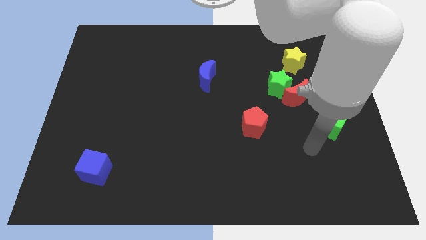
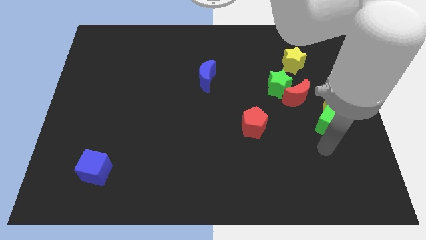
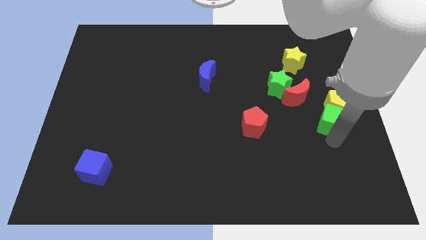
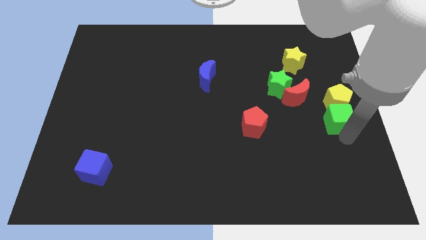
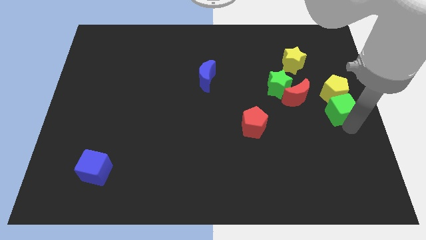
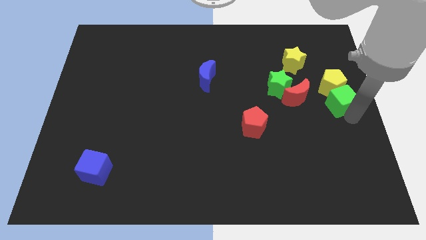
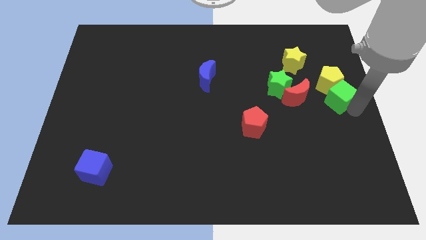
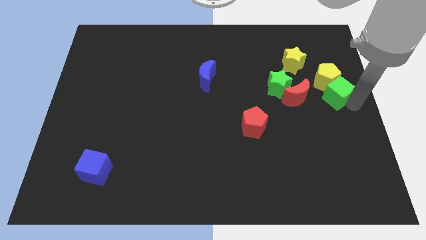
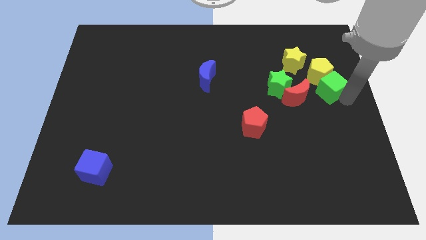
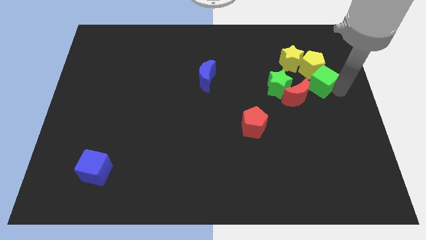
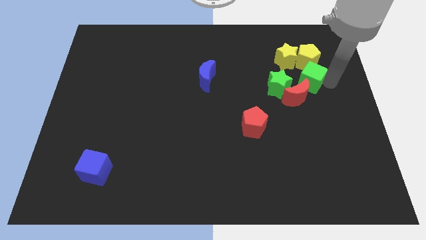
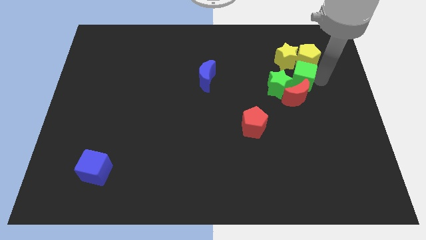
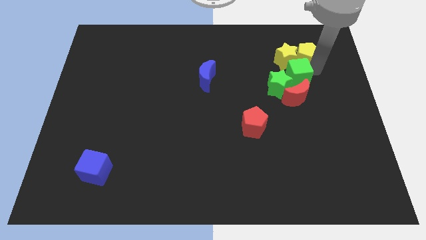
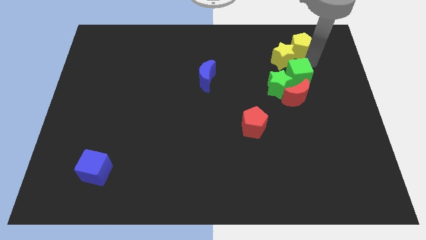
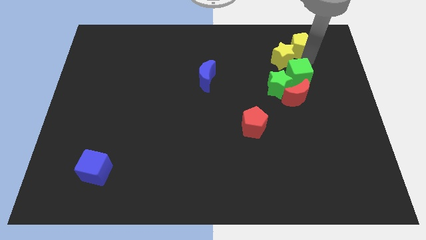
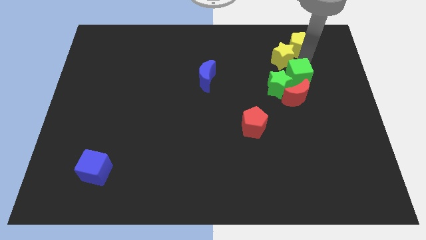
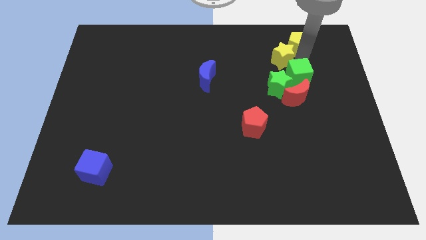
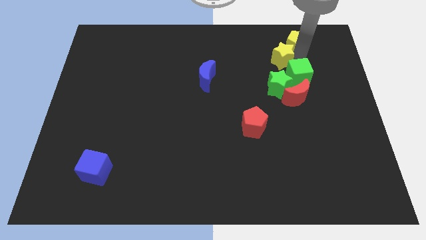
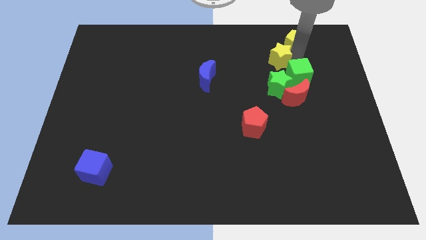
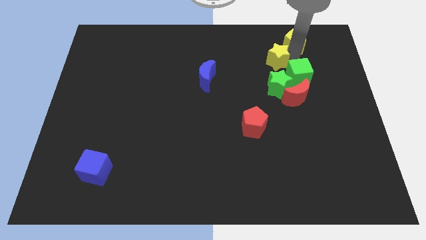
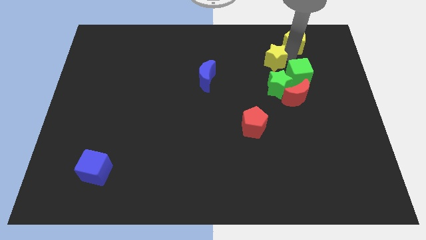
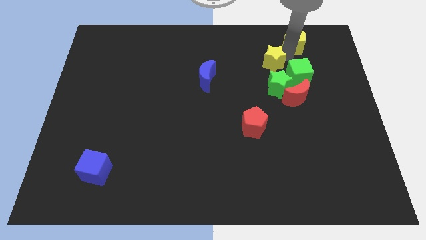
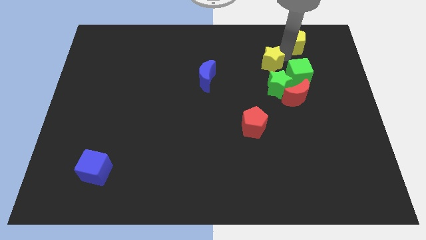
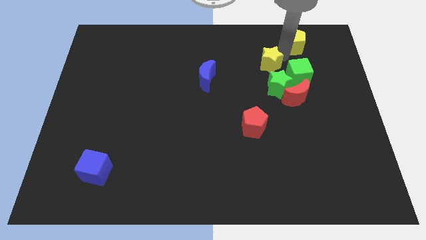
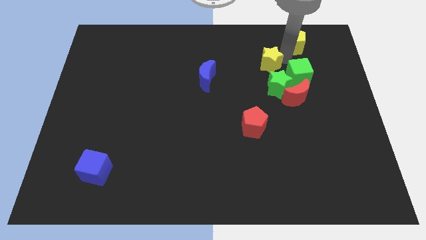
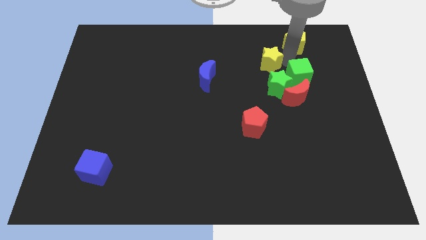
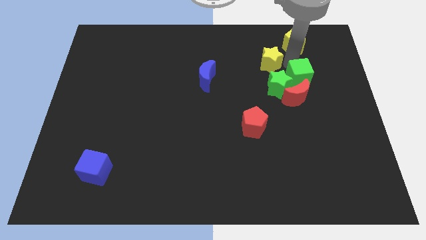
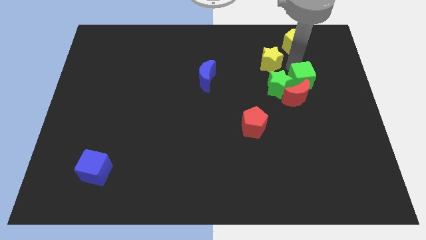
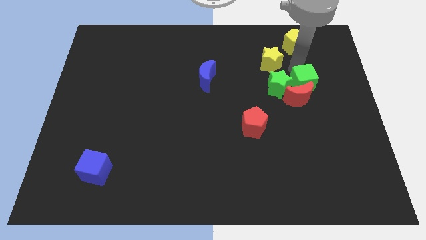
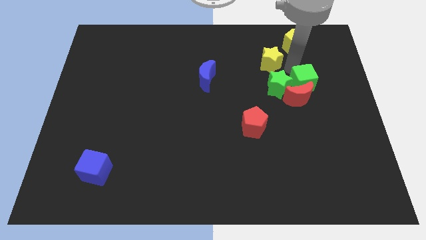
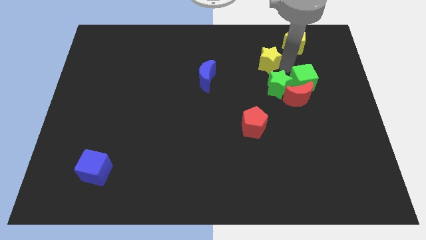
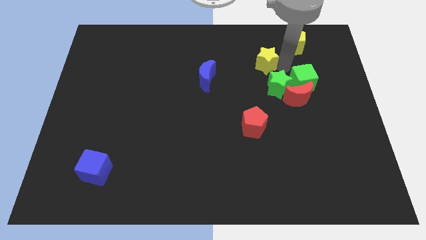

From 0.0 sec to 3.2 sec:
move the yellow star left a little

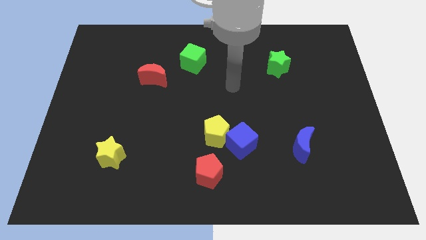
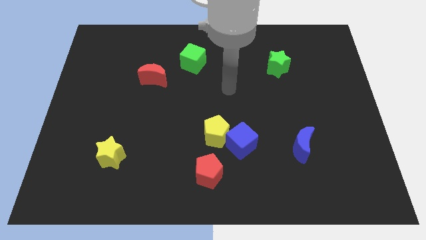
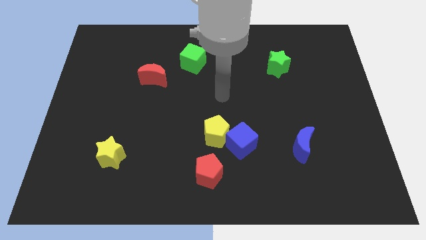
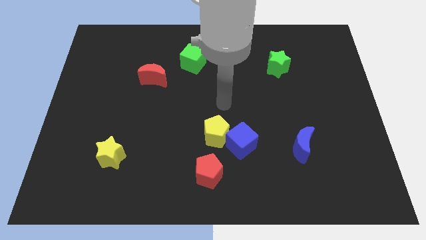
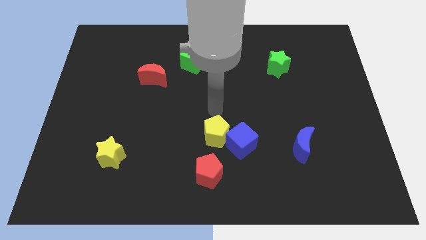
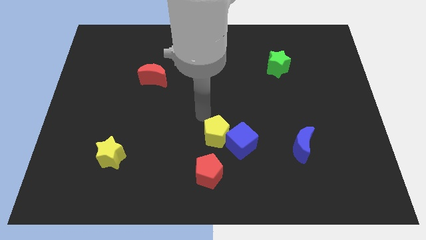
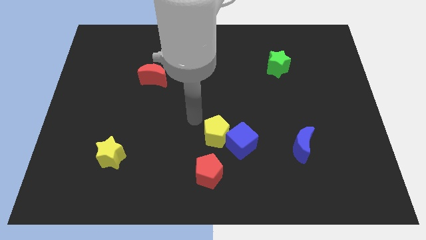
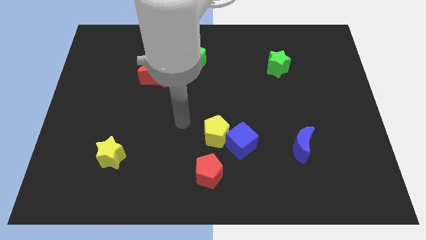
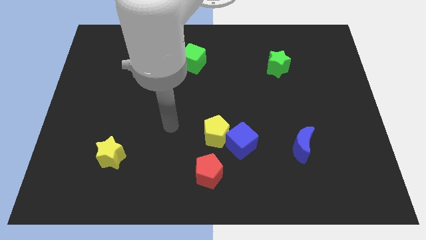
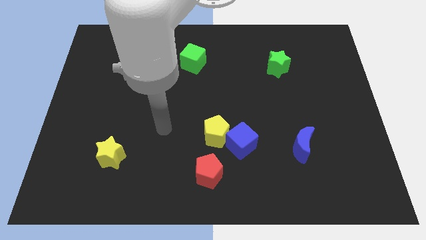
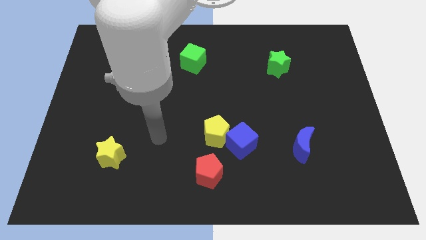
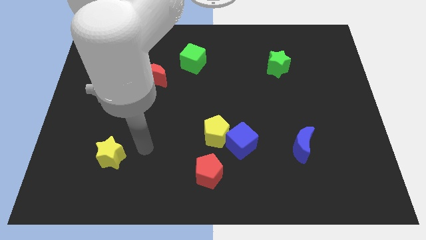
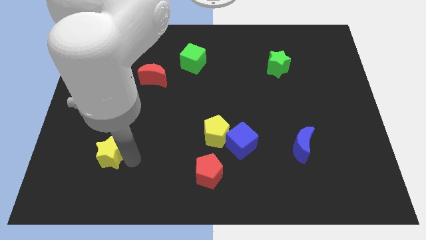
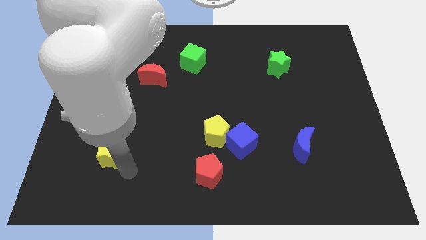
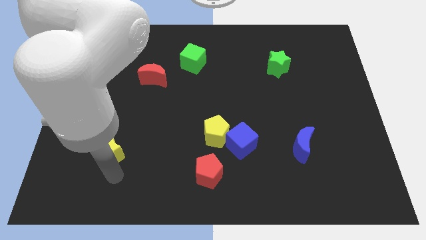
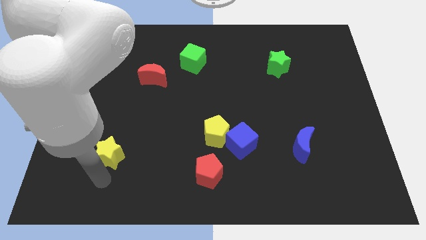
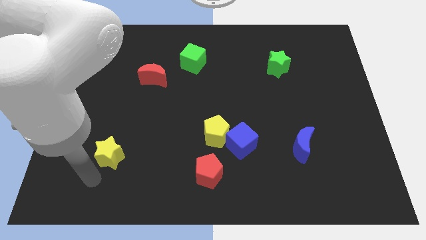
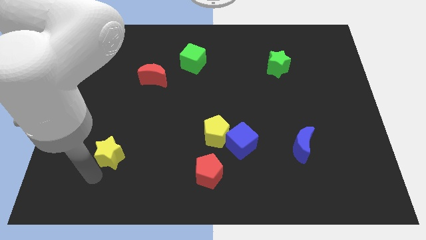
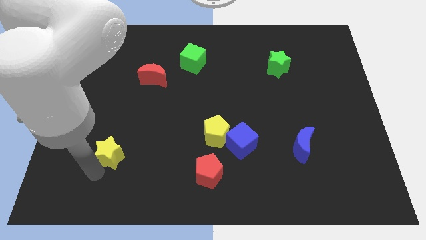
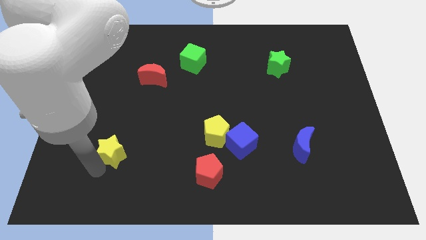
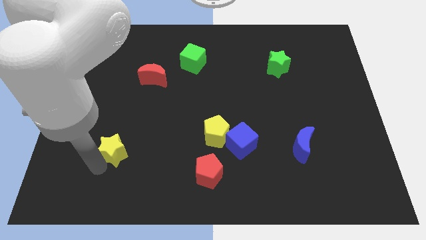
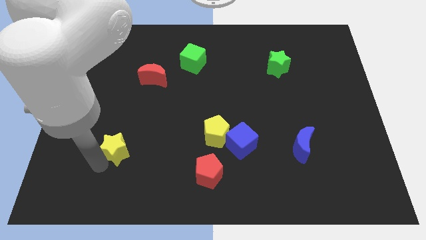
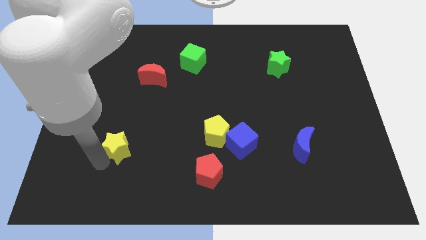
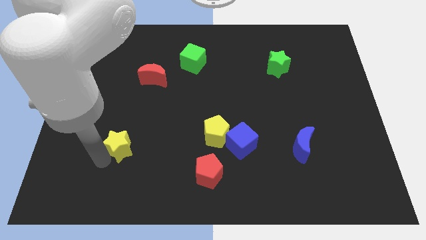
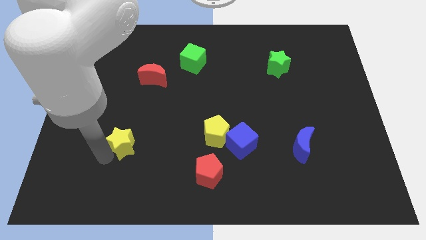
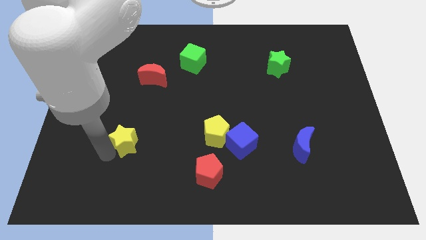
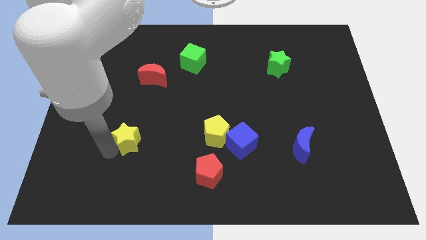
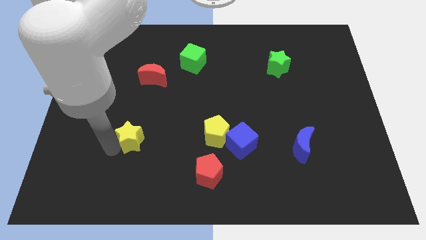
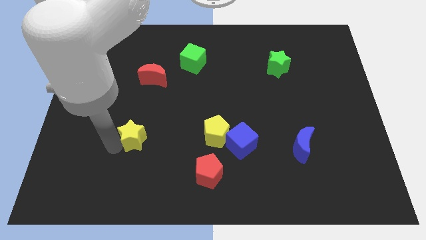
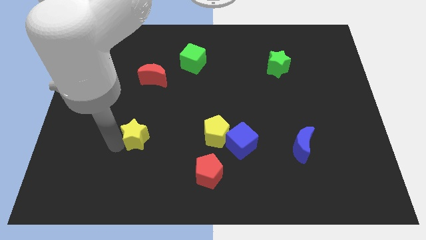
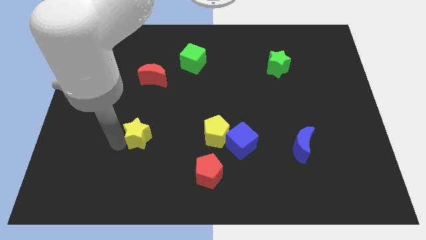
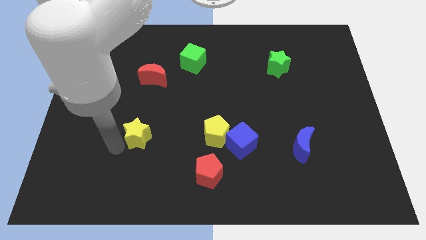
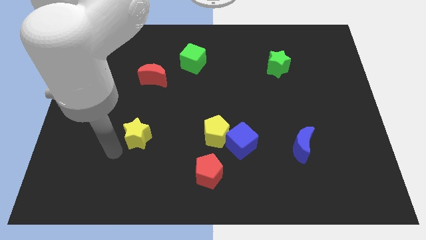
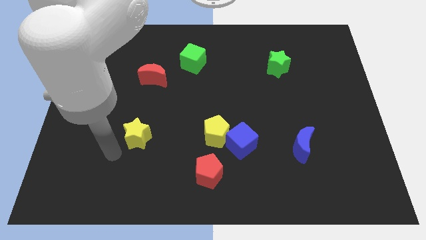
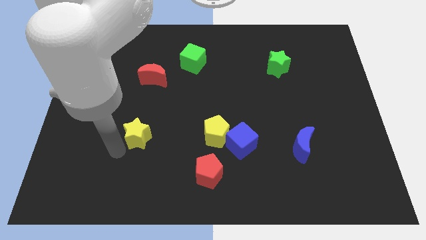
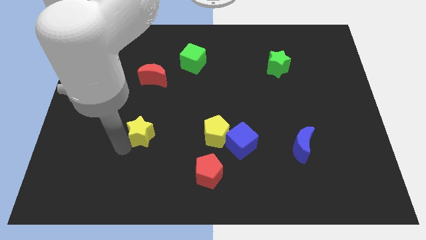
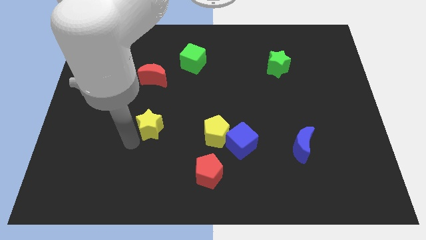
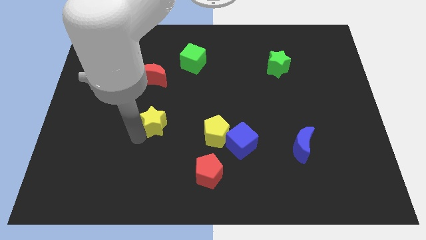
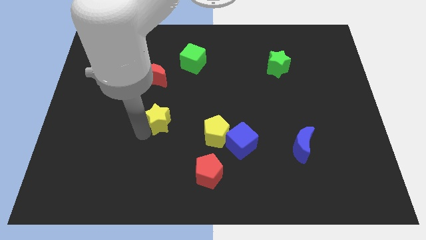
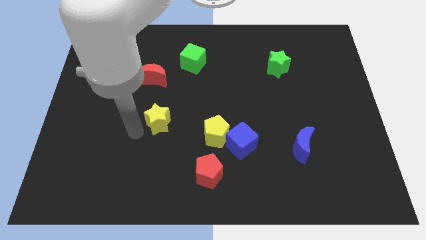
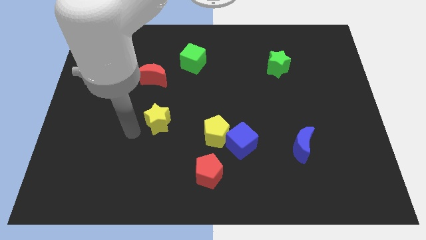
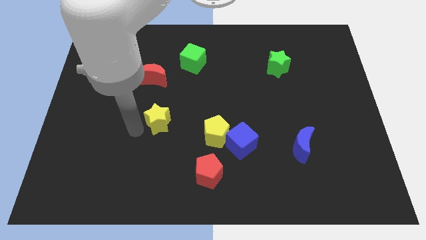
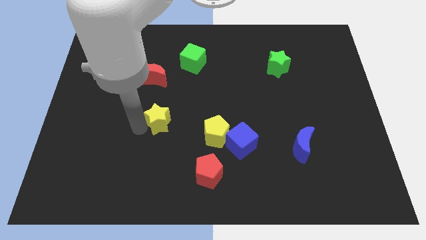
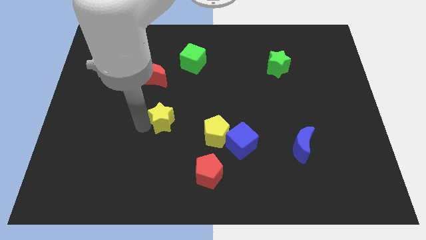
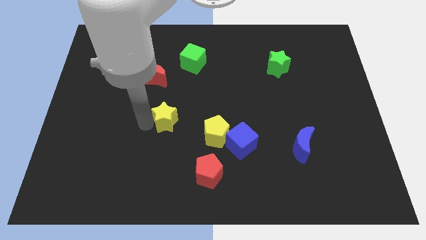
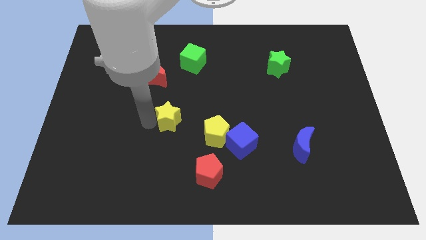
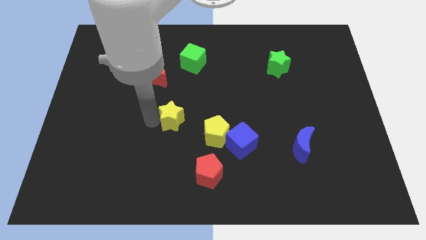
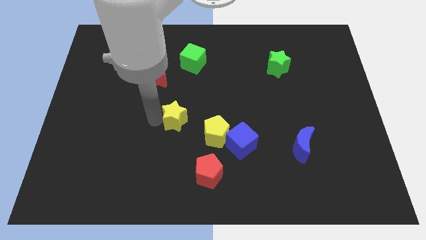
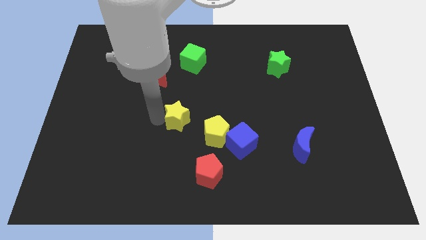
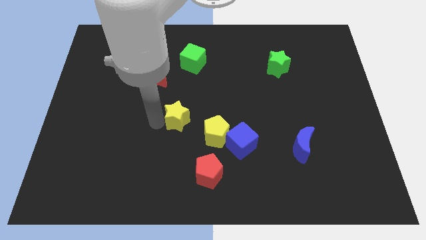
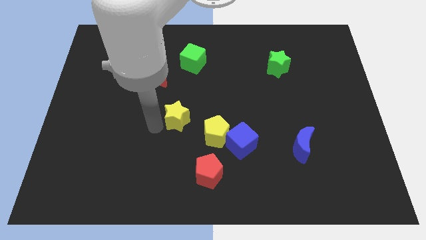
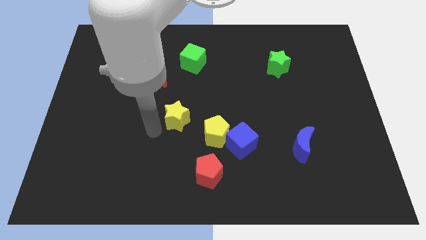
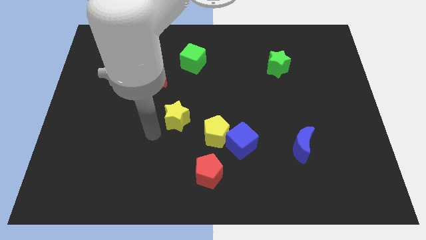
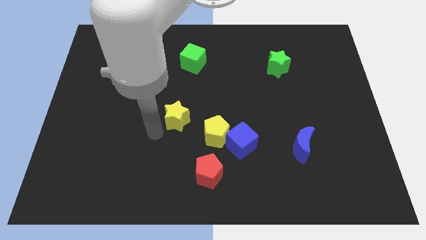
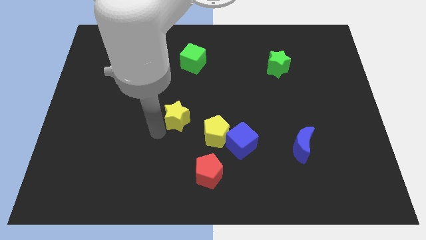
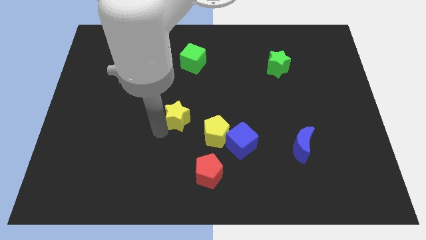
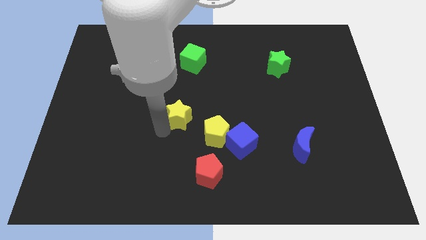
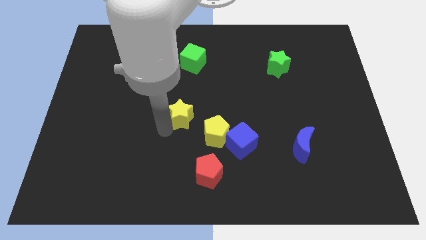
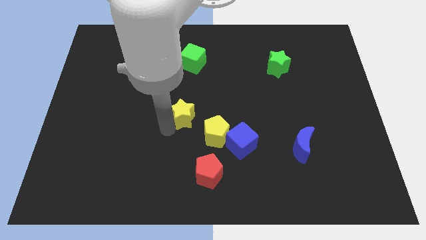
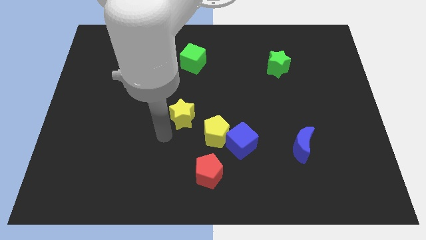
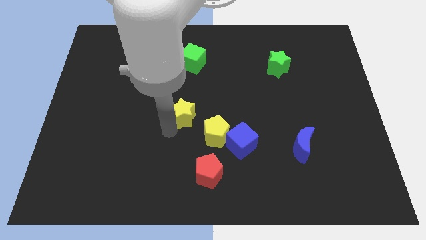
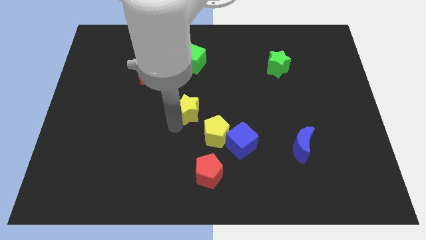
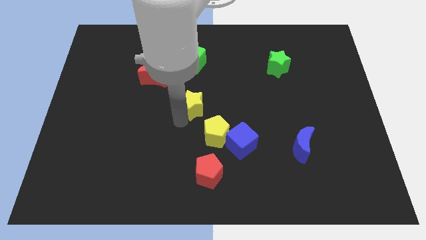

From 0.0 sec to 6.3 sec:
slide the yellow star upwards and right diagonally
